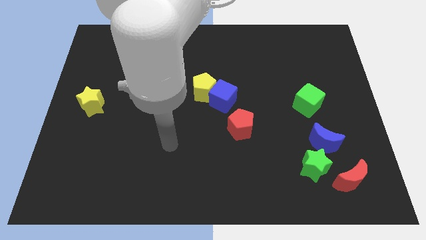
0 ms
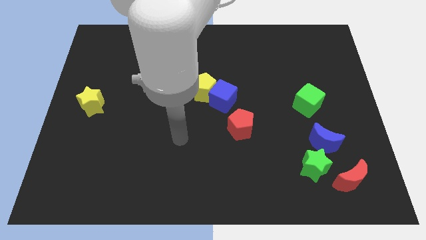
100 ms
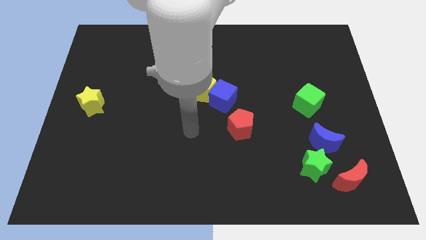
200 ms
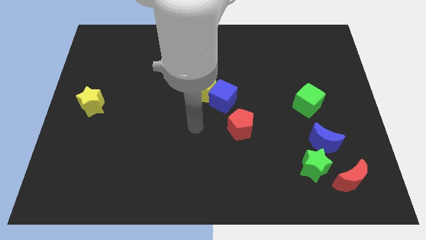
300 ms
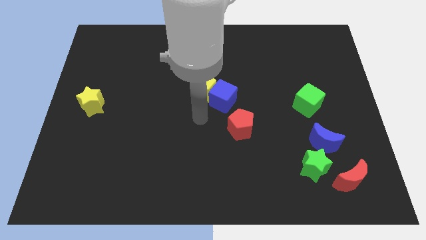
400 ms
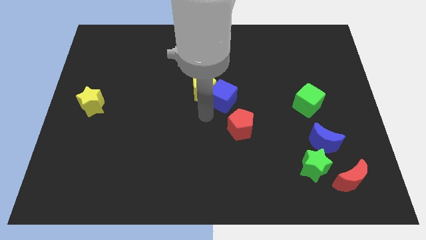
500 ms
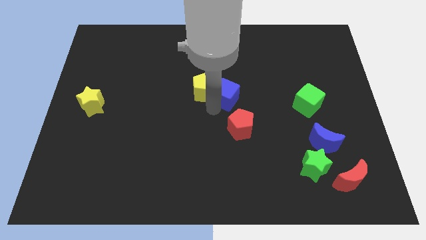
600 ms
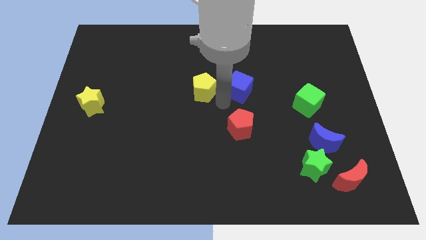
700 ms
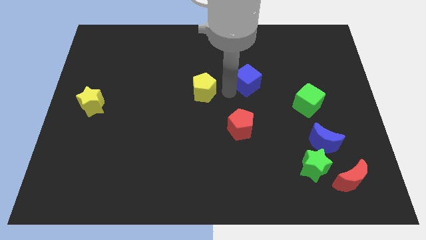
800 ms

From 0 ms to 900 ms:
pull the yellow pentagon apart from the blue cube

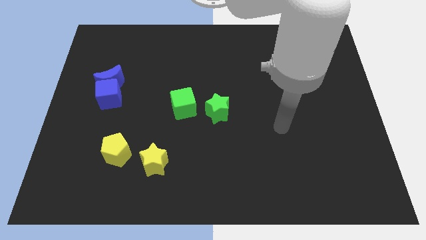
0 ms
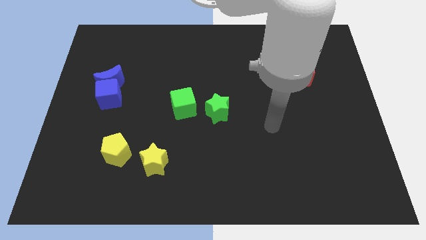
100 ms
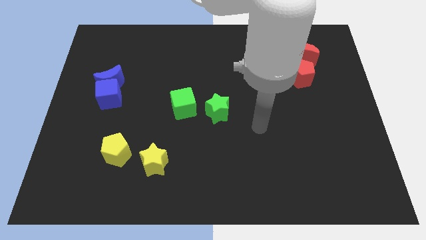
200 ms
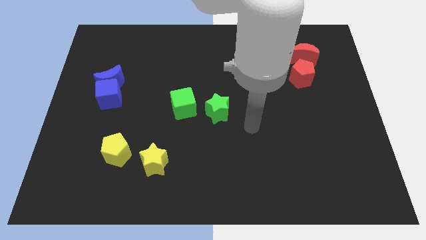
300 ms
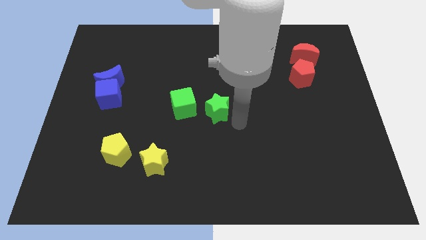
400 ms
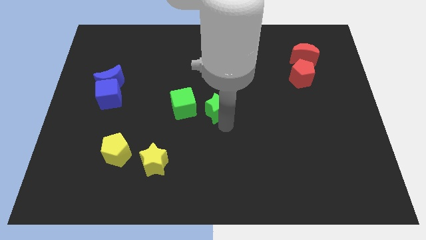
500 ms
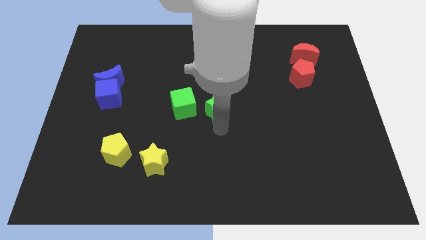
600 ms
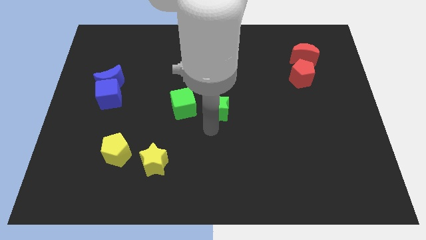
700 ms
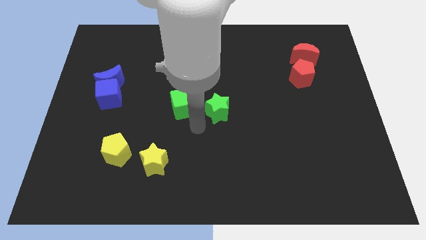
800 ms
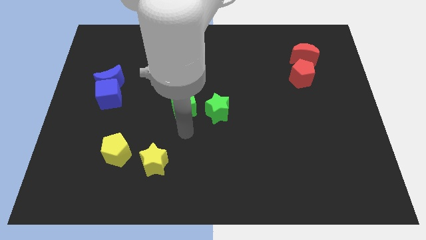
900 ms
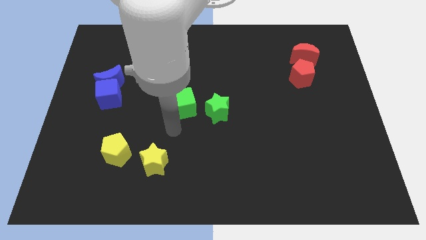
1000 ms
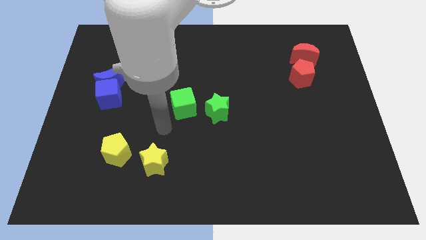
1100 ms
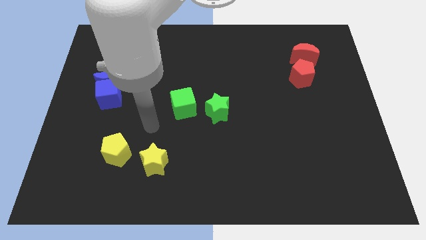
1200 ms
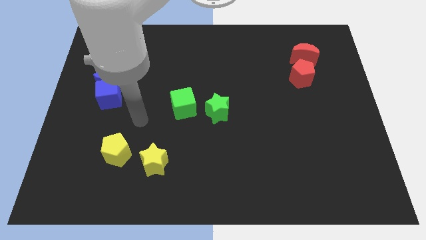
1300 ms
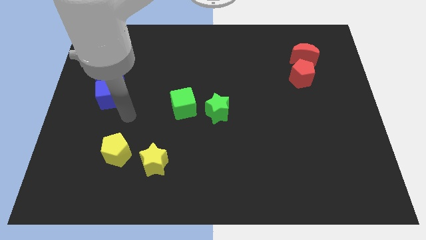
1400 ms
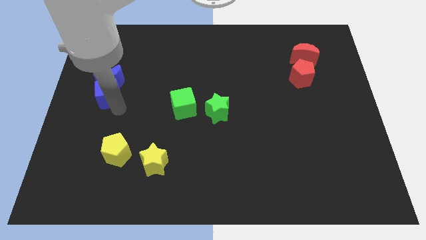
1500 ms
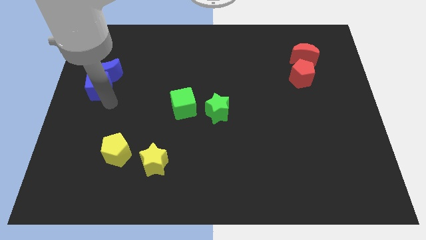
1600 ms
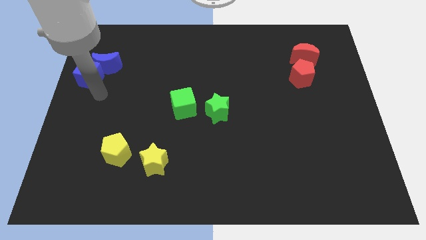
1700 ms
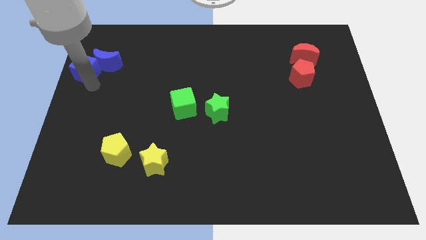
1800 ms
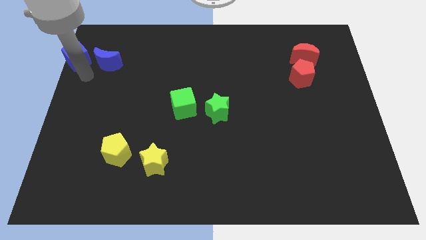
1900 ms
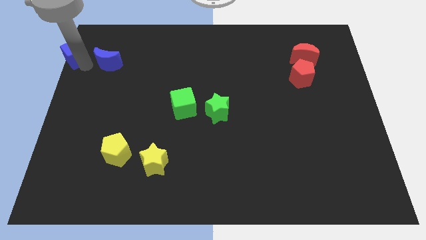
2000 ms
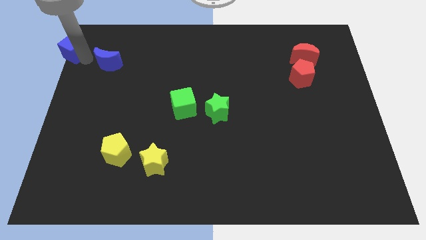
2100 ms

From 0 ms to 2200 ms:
move the blue moon away from the blue cube

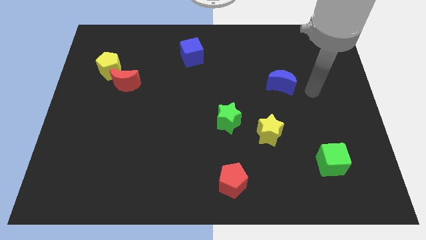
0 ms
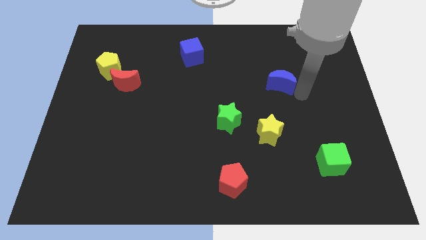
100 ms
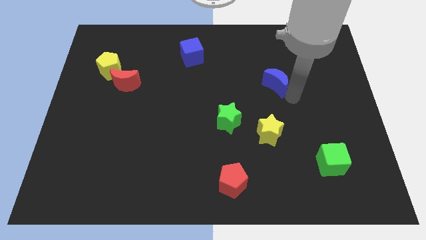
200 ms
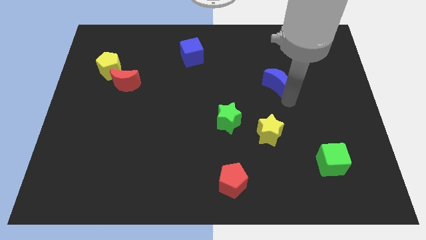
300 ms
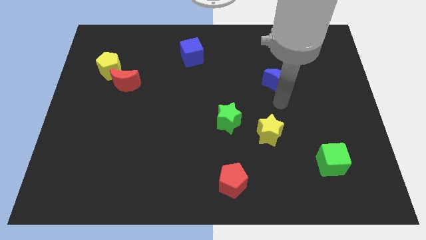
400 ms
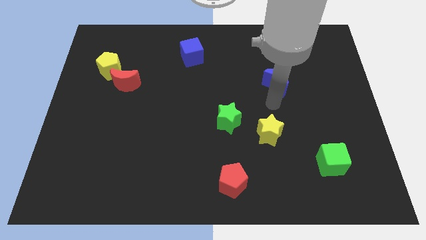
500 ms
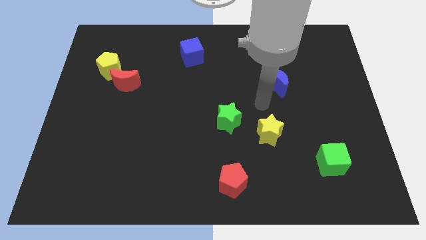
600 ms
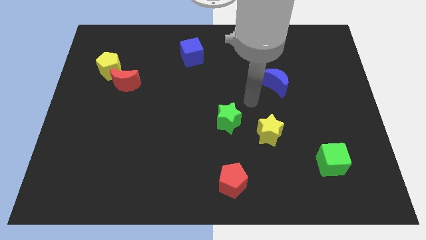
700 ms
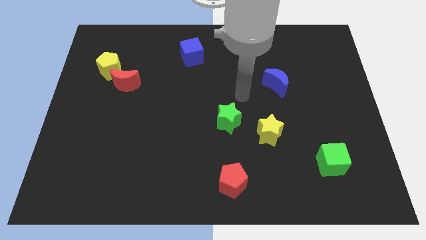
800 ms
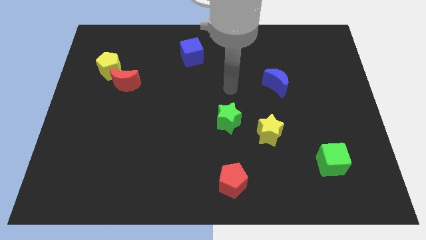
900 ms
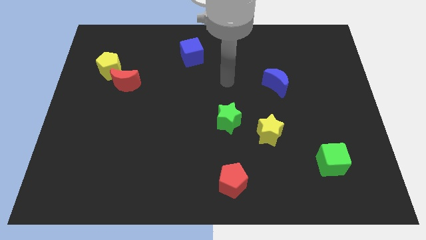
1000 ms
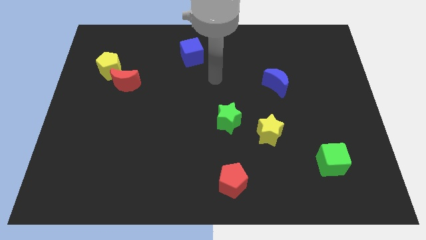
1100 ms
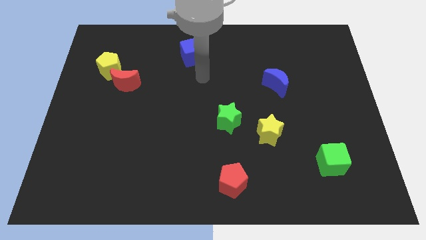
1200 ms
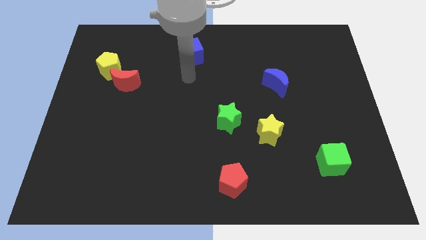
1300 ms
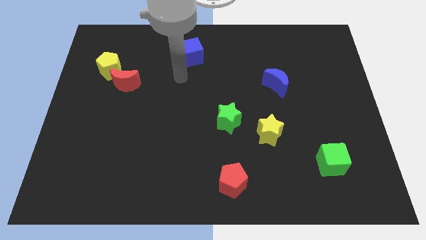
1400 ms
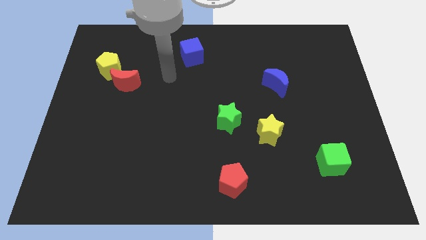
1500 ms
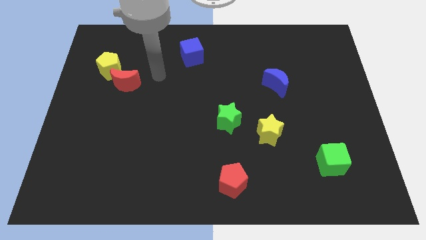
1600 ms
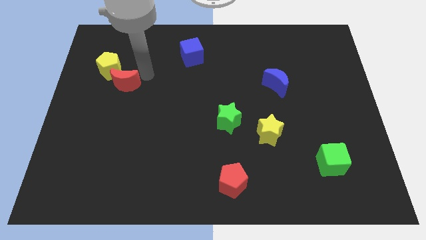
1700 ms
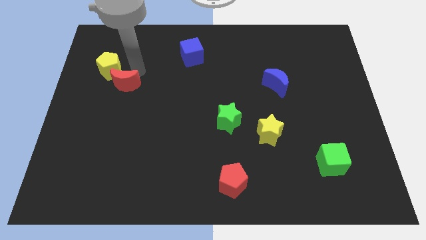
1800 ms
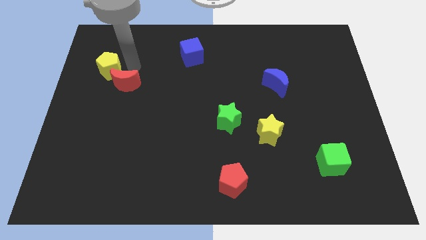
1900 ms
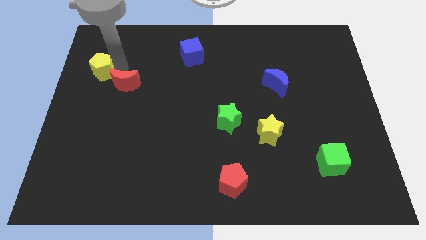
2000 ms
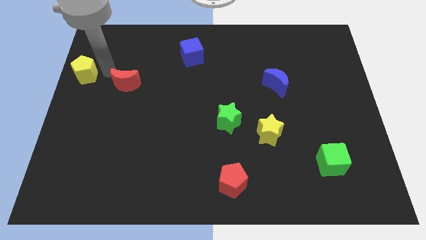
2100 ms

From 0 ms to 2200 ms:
pull the red moon apart from the yellow pentagon

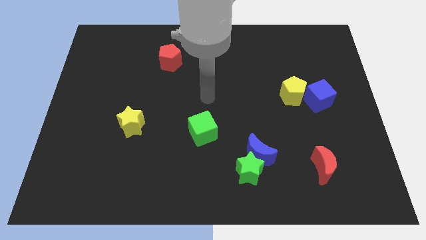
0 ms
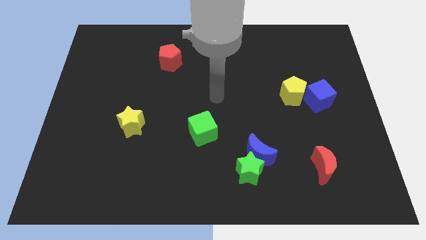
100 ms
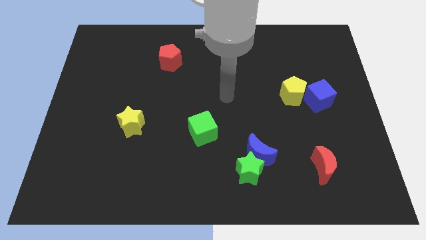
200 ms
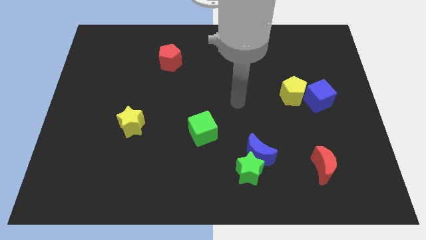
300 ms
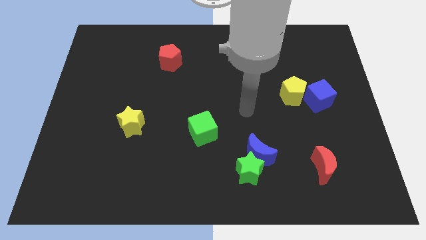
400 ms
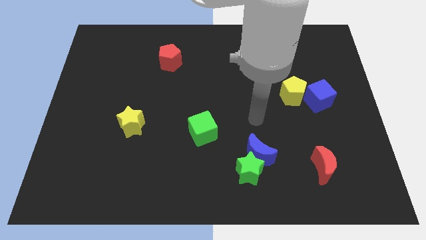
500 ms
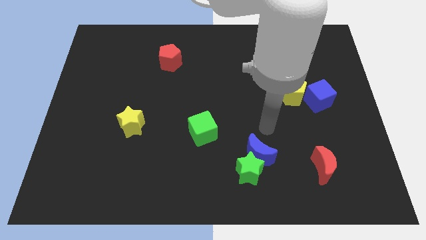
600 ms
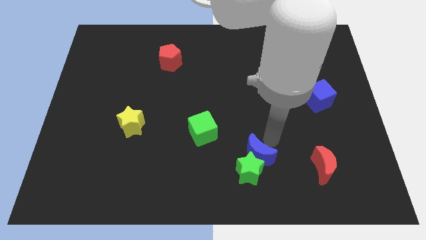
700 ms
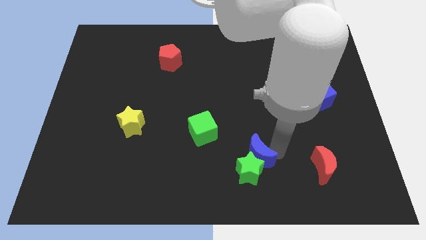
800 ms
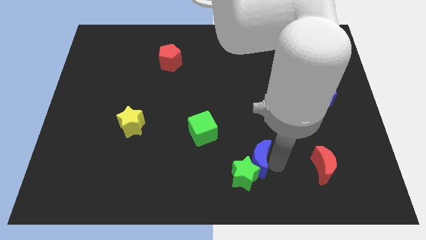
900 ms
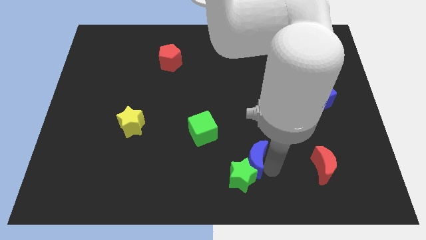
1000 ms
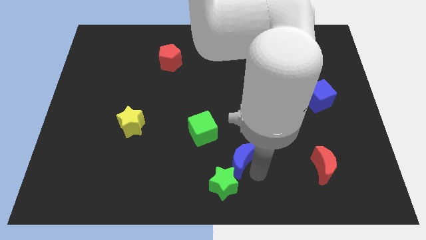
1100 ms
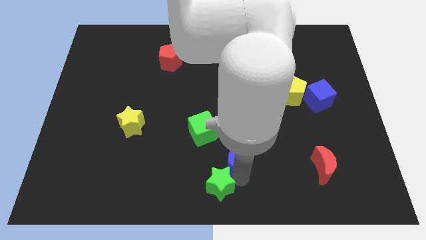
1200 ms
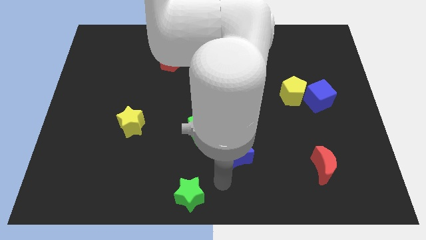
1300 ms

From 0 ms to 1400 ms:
pull the blue moon apart from the green star

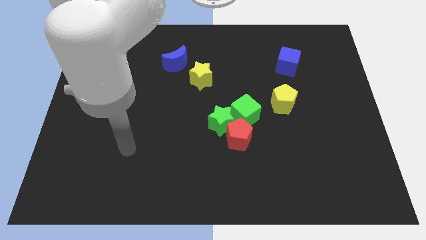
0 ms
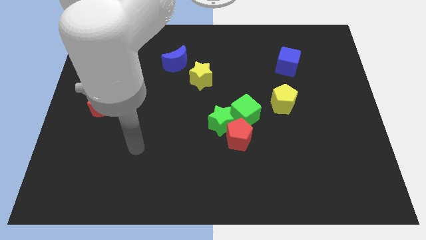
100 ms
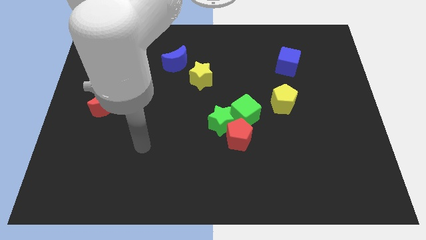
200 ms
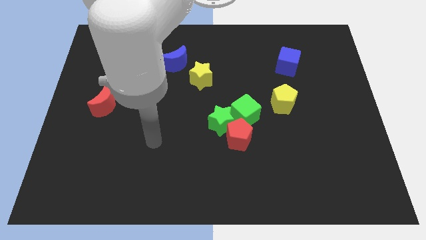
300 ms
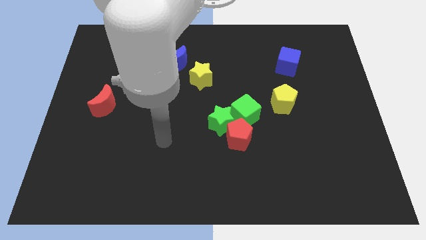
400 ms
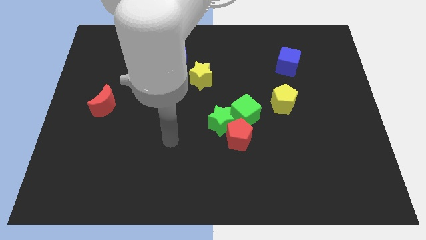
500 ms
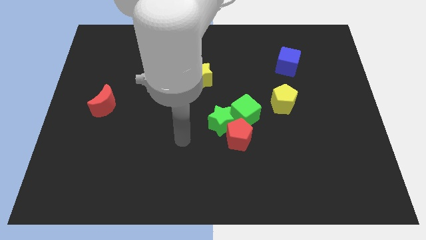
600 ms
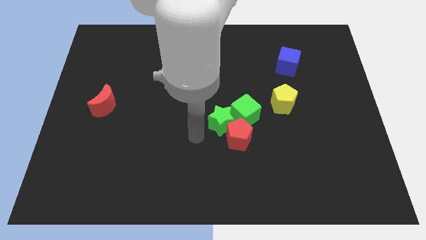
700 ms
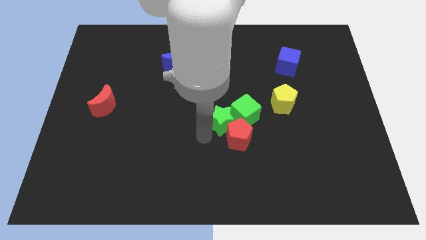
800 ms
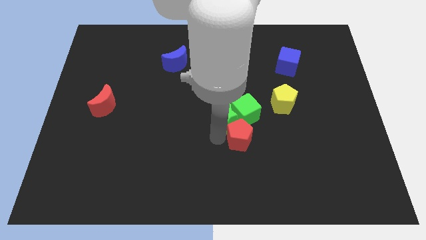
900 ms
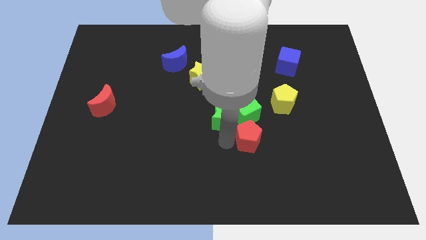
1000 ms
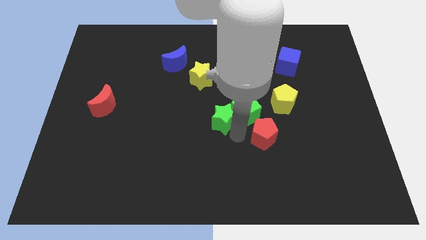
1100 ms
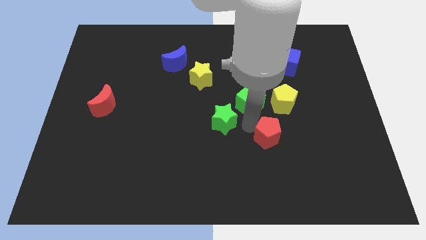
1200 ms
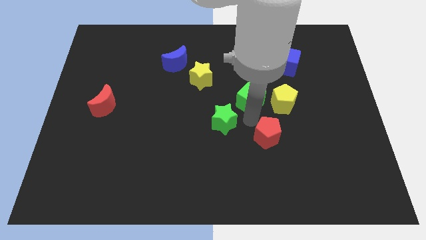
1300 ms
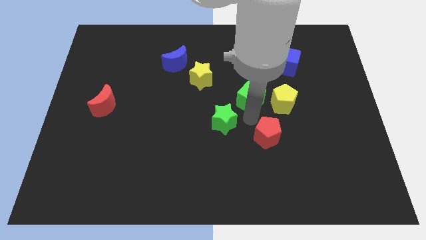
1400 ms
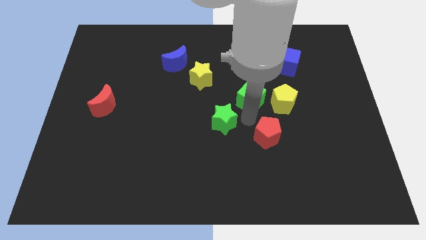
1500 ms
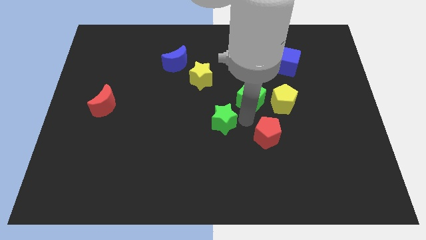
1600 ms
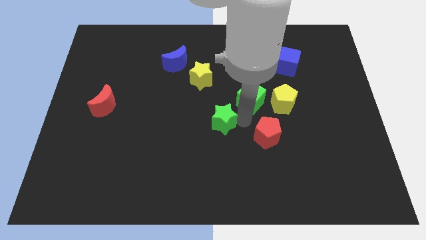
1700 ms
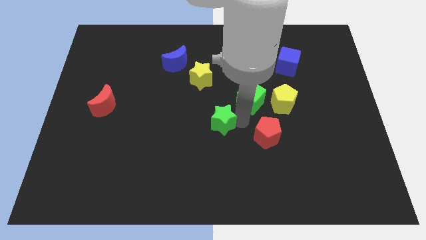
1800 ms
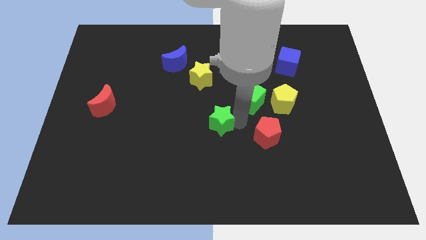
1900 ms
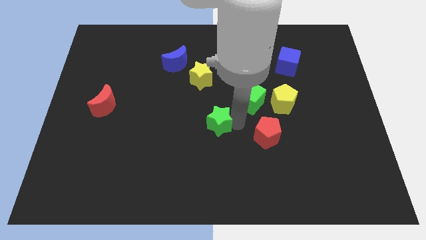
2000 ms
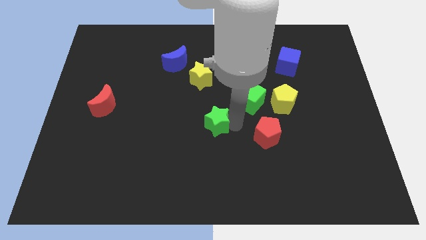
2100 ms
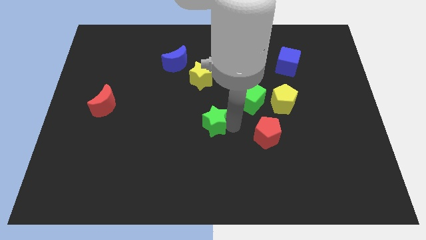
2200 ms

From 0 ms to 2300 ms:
move the green star away from the red pentagon and green cube

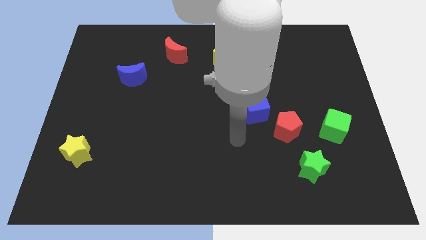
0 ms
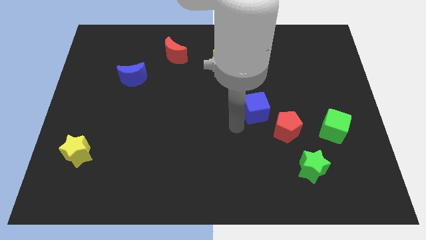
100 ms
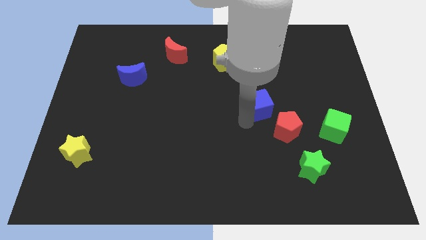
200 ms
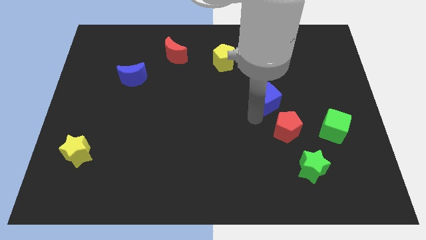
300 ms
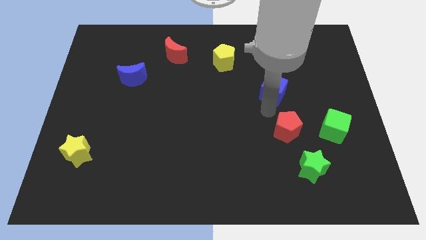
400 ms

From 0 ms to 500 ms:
move the red pentagon away from the blue cube
